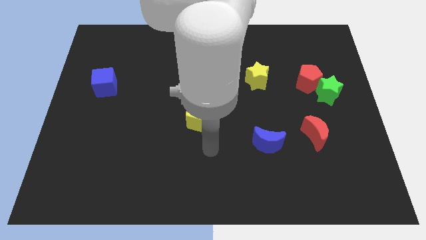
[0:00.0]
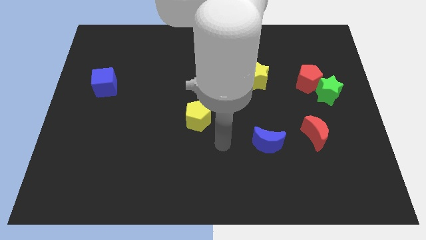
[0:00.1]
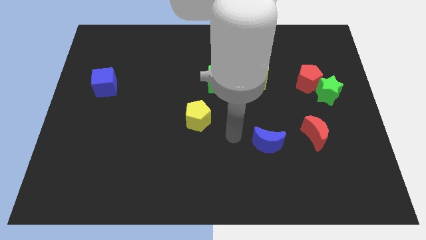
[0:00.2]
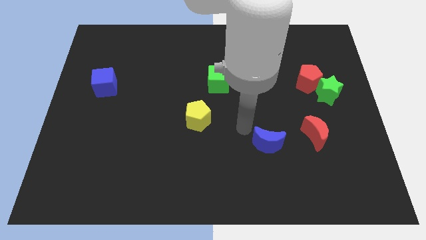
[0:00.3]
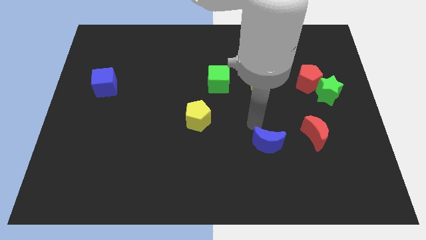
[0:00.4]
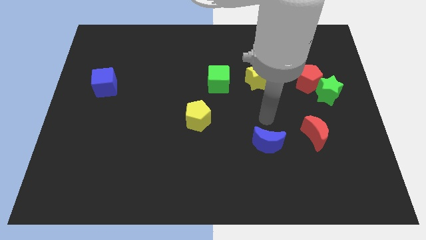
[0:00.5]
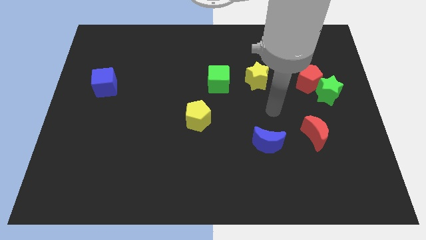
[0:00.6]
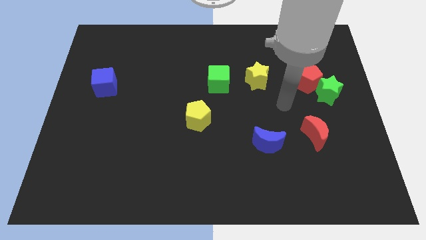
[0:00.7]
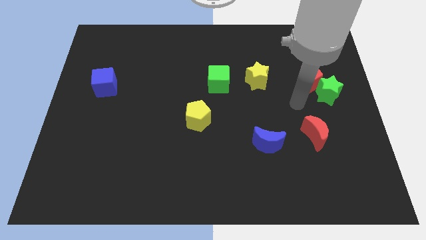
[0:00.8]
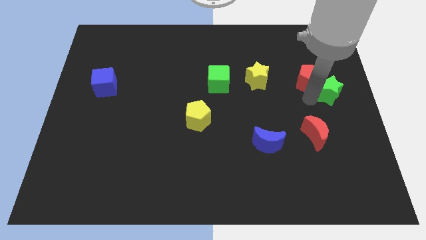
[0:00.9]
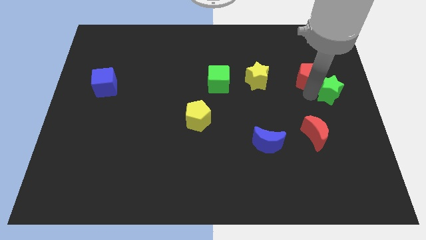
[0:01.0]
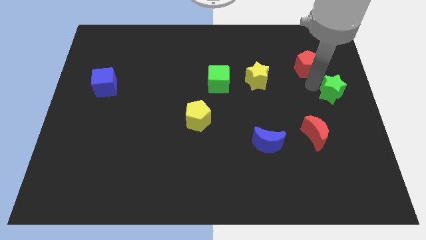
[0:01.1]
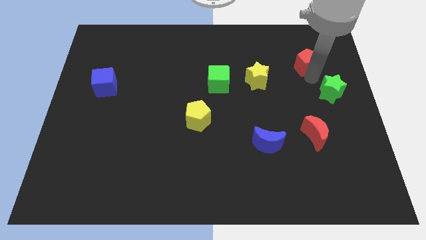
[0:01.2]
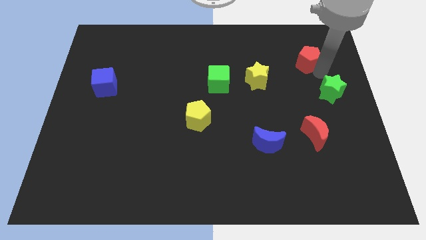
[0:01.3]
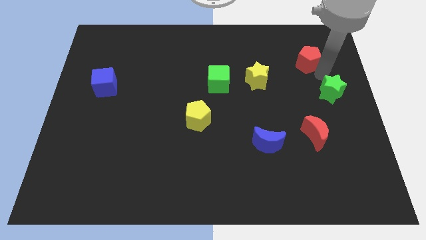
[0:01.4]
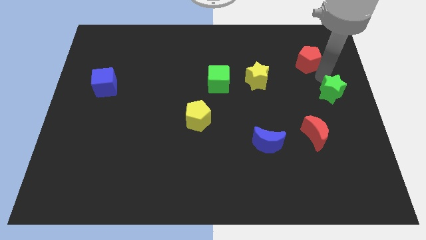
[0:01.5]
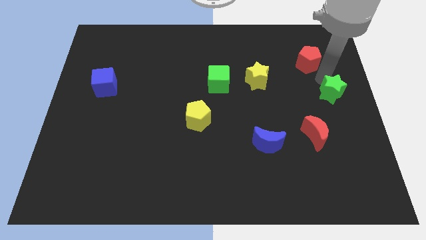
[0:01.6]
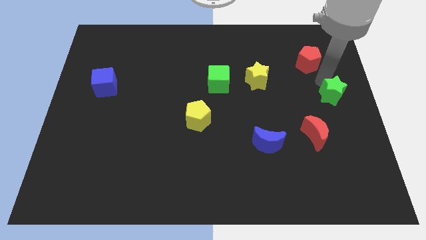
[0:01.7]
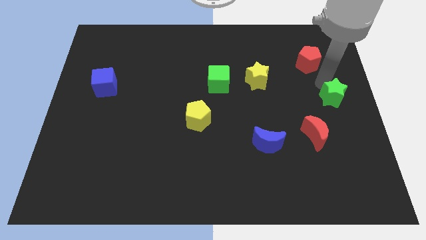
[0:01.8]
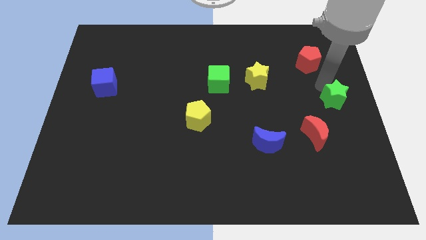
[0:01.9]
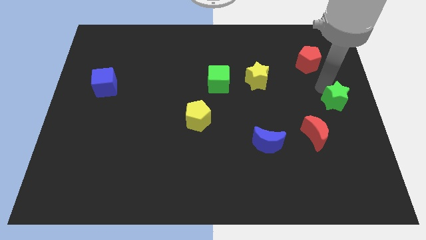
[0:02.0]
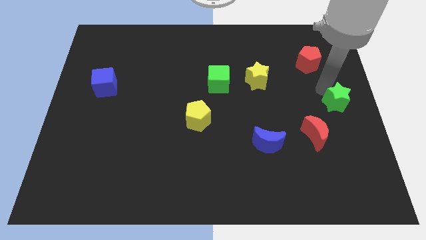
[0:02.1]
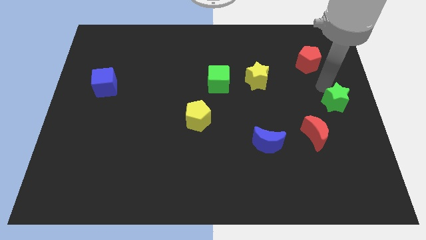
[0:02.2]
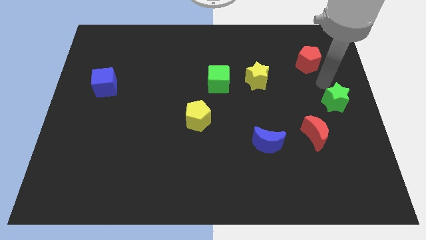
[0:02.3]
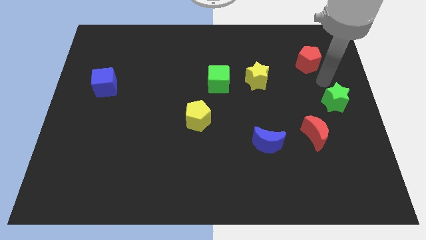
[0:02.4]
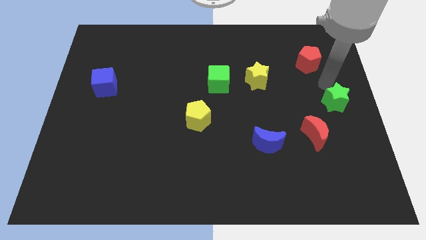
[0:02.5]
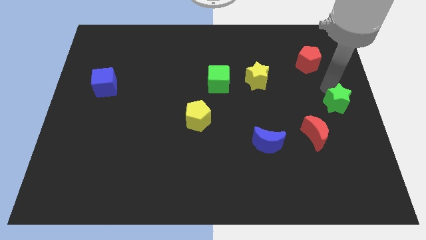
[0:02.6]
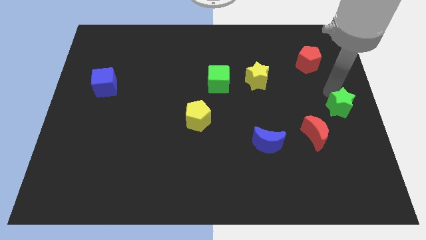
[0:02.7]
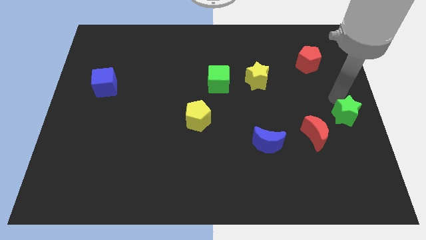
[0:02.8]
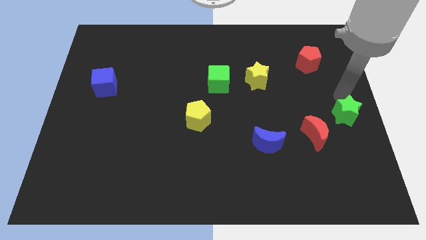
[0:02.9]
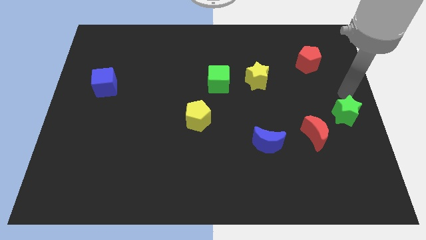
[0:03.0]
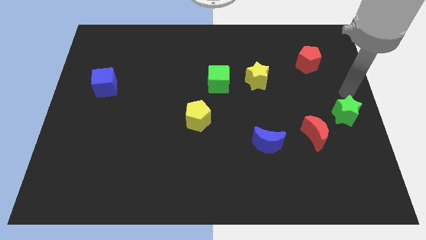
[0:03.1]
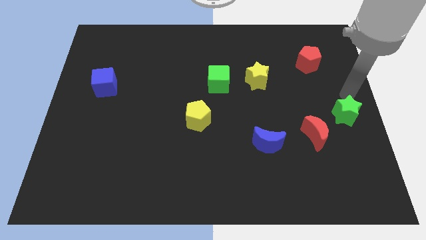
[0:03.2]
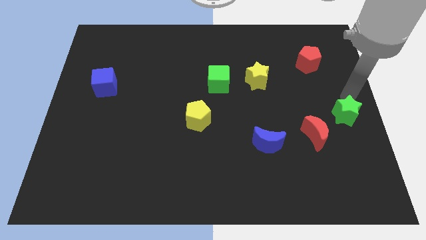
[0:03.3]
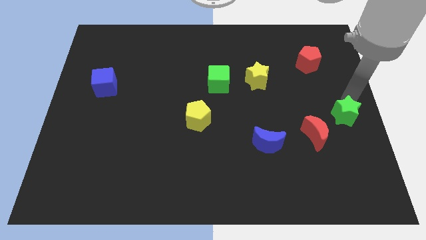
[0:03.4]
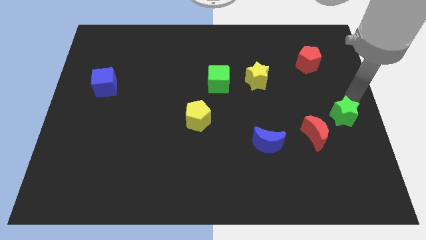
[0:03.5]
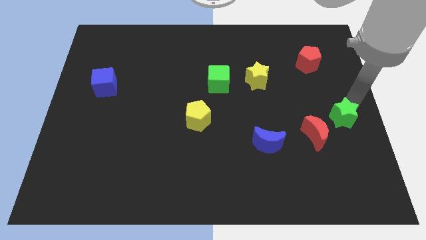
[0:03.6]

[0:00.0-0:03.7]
move the green star downwards a bit

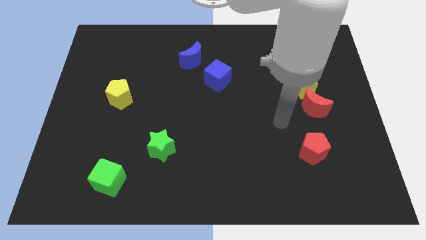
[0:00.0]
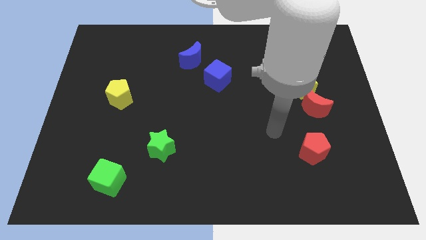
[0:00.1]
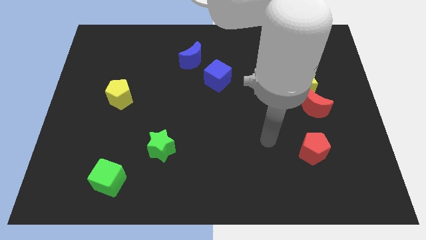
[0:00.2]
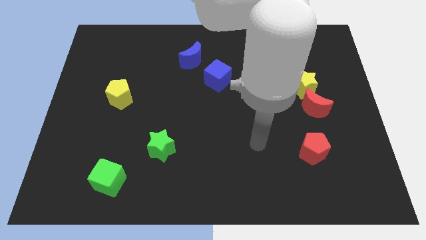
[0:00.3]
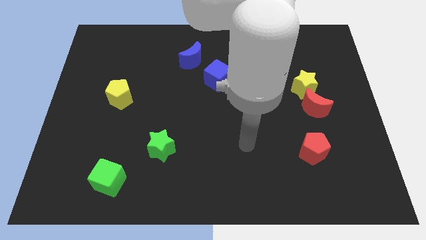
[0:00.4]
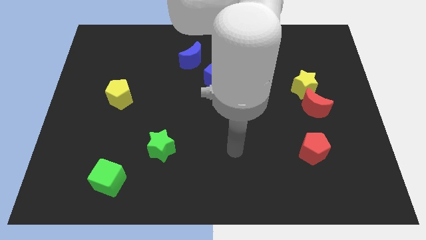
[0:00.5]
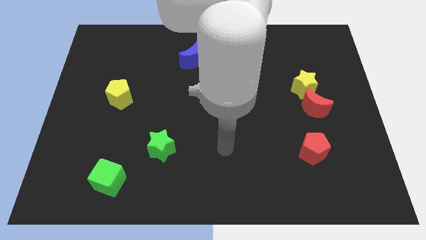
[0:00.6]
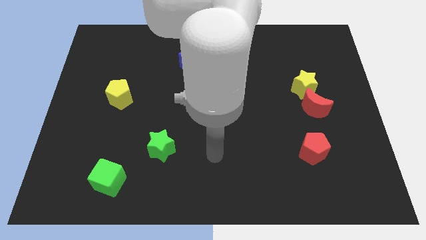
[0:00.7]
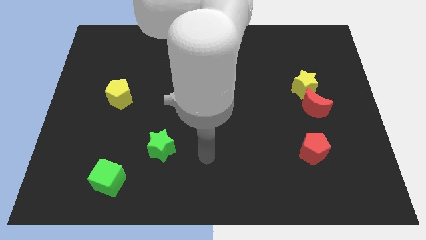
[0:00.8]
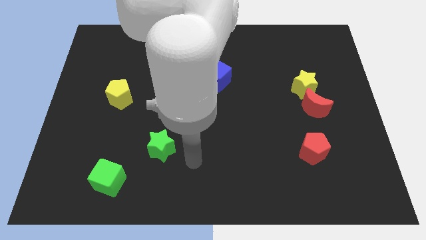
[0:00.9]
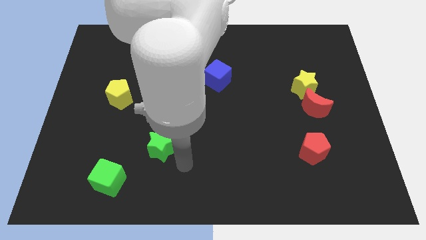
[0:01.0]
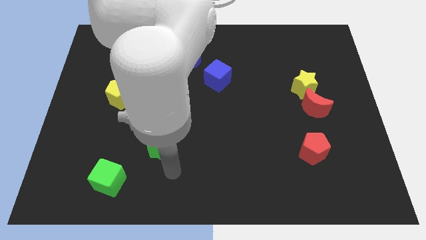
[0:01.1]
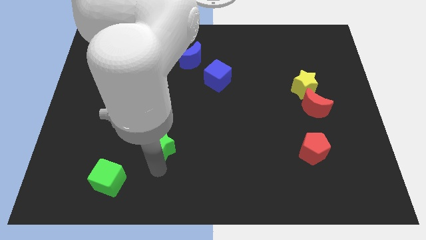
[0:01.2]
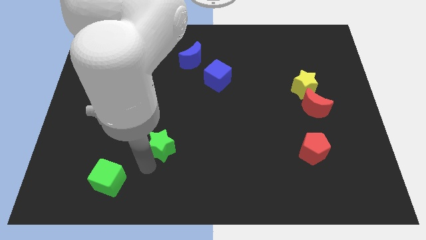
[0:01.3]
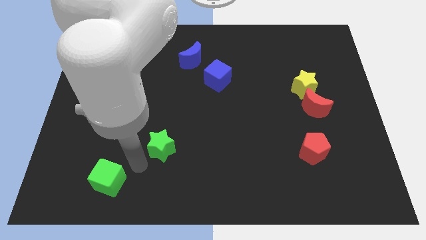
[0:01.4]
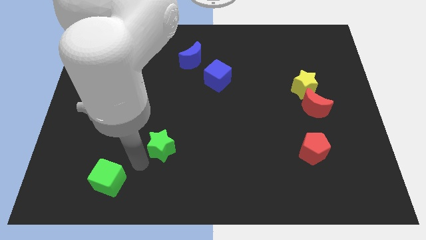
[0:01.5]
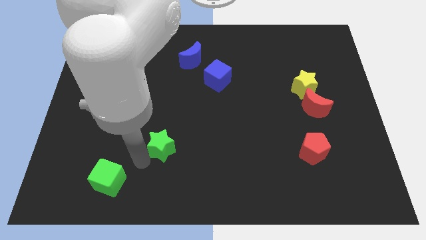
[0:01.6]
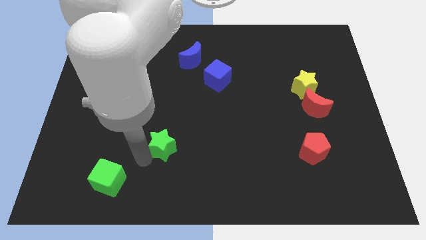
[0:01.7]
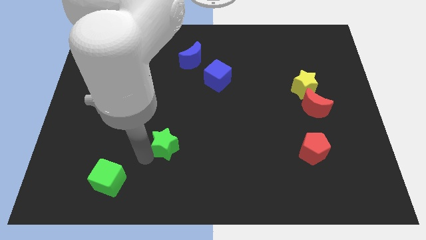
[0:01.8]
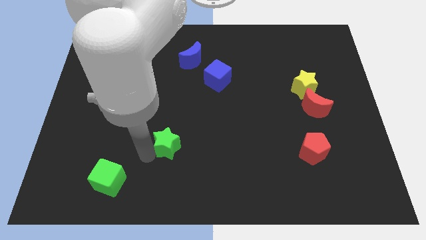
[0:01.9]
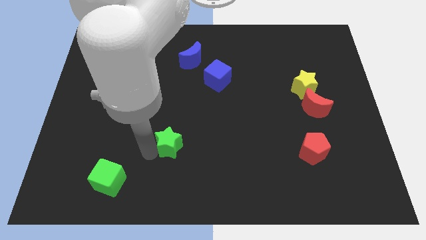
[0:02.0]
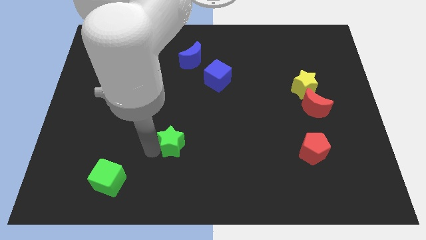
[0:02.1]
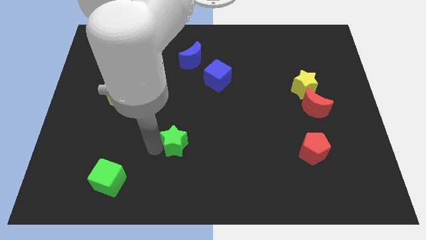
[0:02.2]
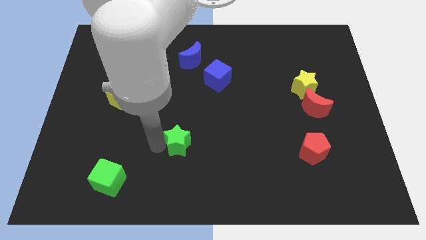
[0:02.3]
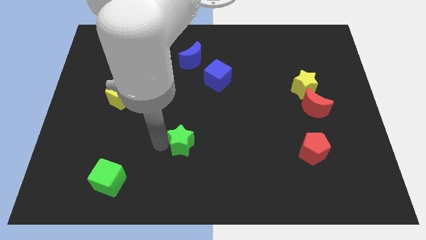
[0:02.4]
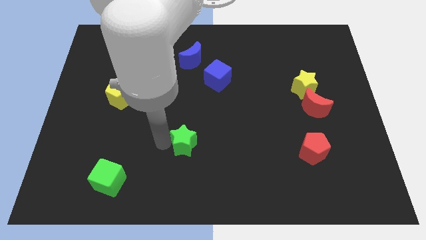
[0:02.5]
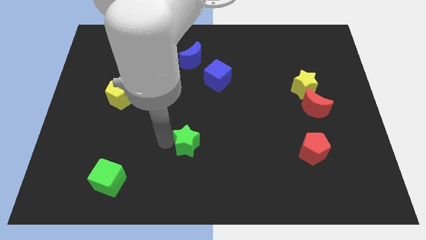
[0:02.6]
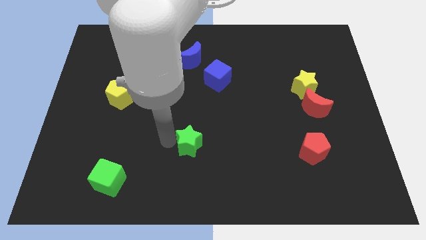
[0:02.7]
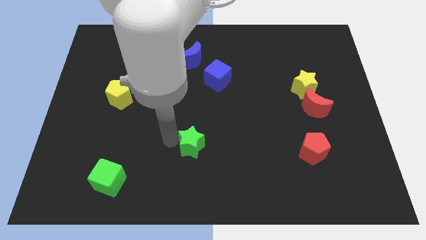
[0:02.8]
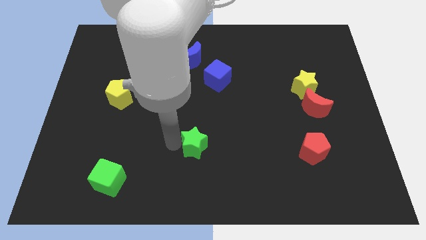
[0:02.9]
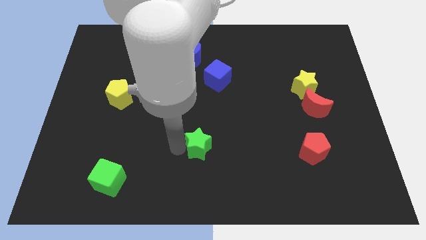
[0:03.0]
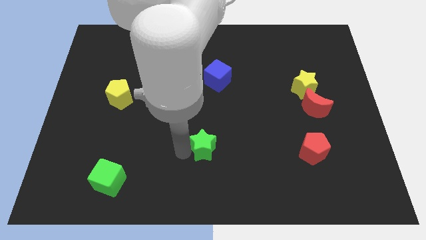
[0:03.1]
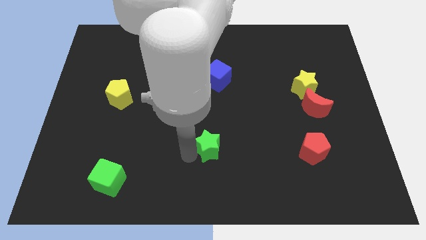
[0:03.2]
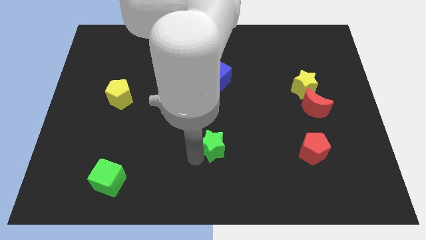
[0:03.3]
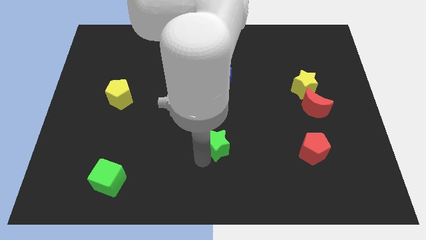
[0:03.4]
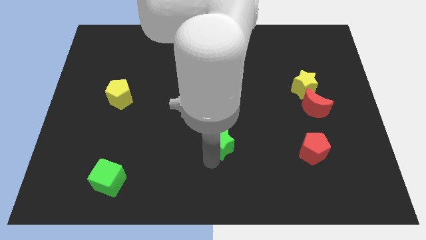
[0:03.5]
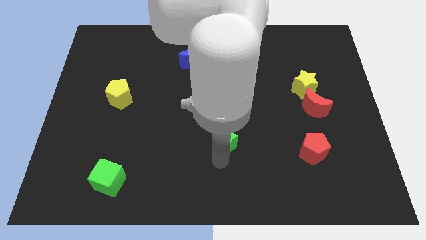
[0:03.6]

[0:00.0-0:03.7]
slightly move the green star up and then to the right

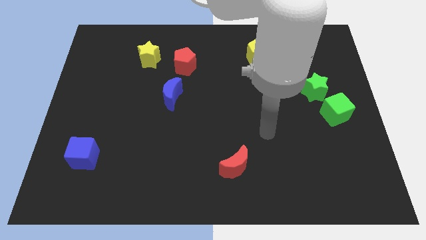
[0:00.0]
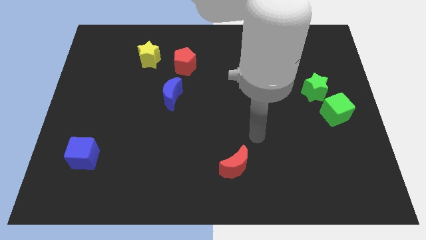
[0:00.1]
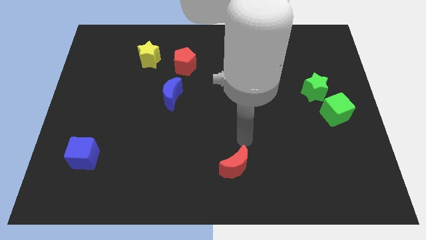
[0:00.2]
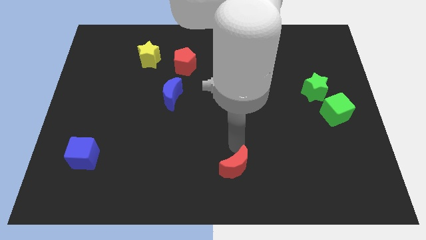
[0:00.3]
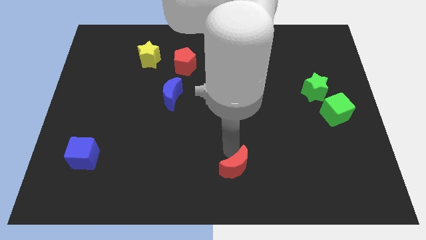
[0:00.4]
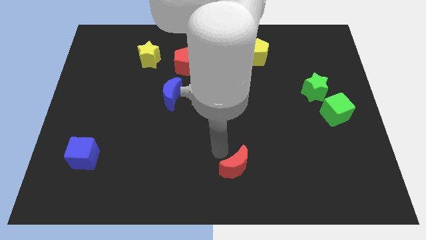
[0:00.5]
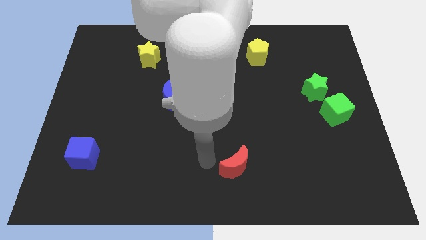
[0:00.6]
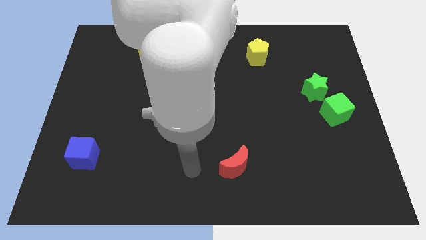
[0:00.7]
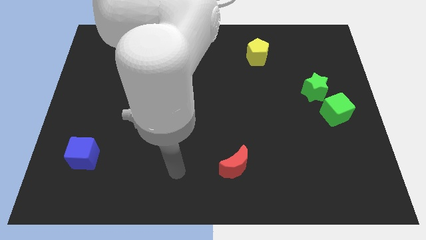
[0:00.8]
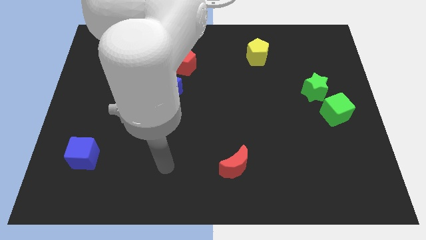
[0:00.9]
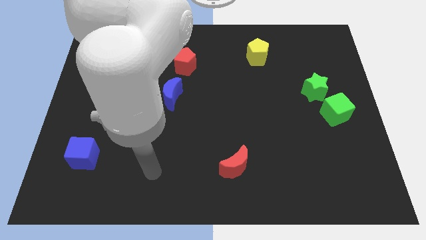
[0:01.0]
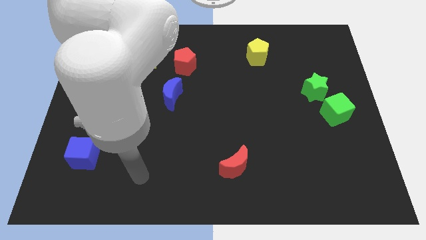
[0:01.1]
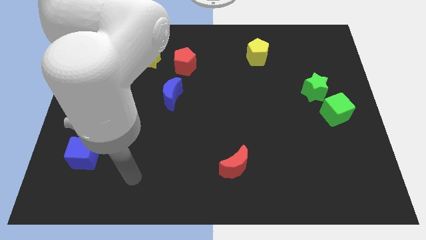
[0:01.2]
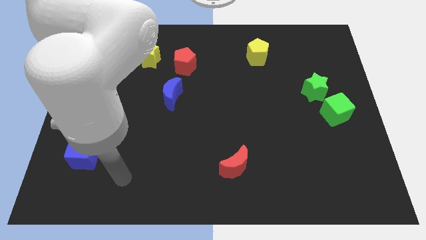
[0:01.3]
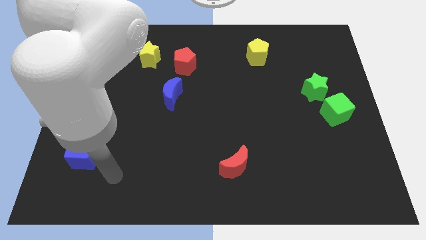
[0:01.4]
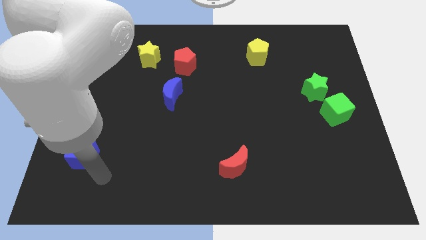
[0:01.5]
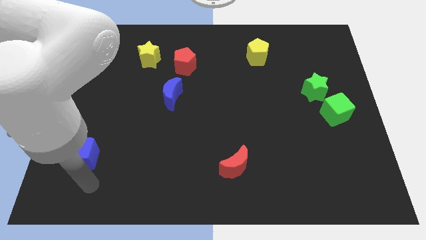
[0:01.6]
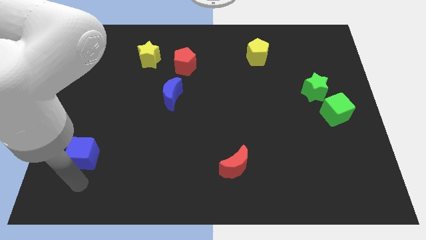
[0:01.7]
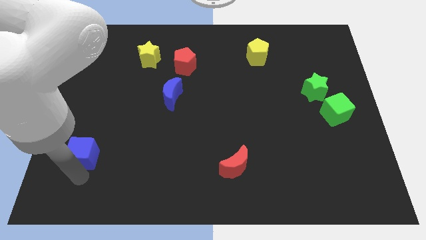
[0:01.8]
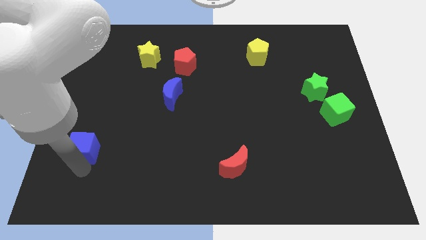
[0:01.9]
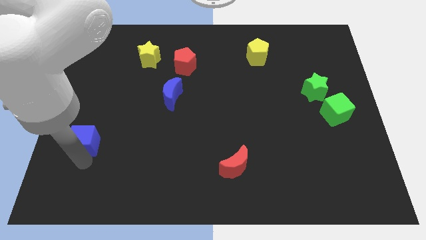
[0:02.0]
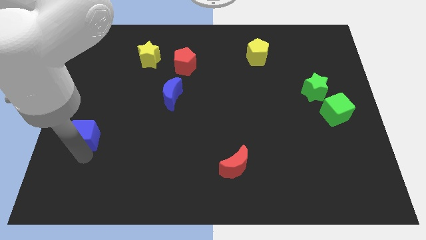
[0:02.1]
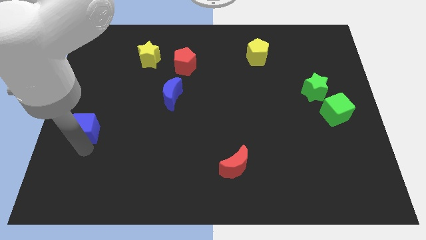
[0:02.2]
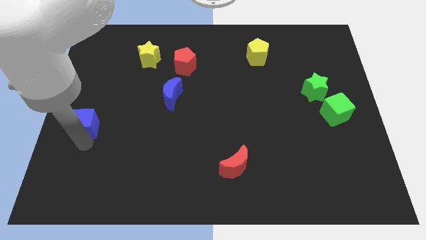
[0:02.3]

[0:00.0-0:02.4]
slightly slide the blue cube upwards
